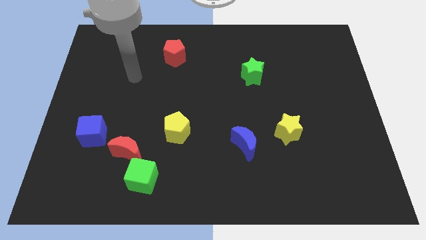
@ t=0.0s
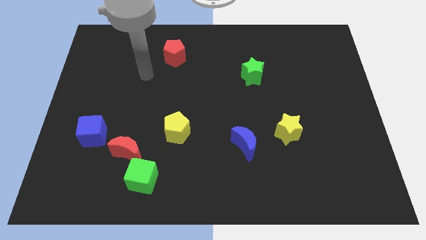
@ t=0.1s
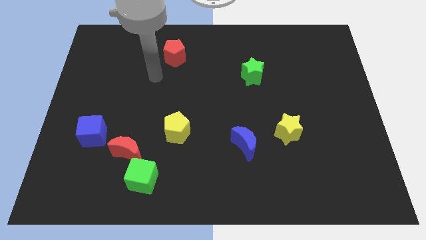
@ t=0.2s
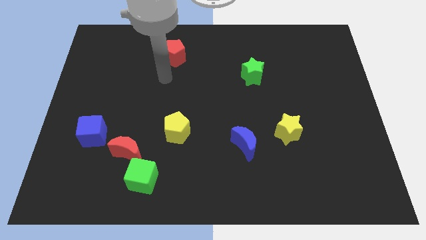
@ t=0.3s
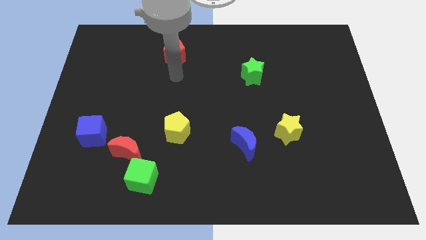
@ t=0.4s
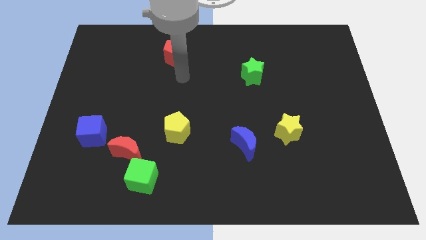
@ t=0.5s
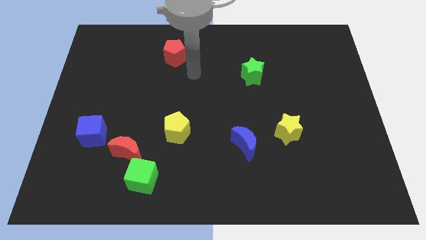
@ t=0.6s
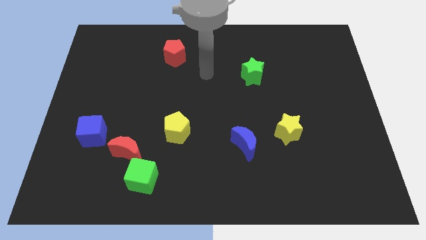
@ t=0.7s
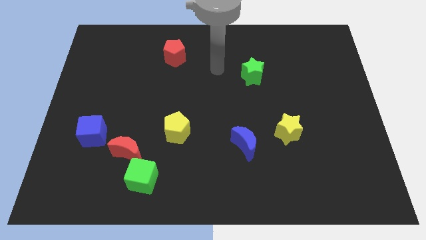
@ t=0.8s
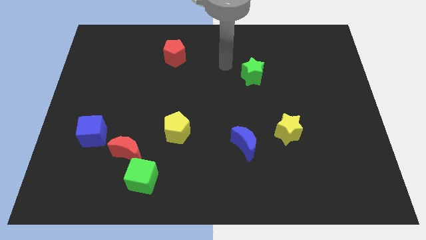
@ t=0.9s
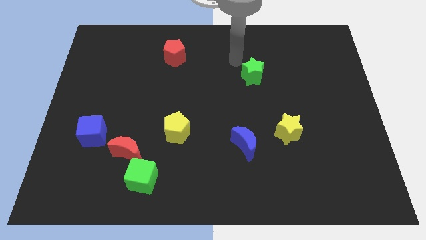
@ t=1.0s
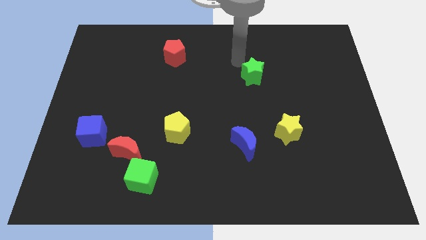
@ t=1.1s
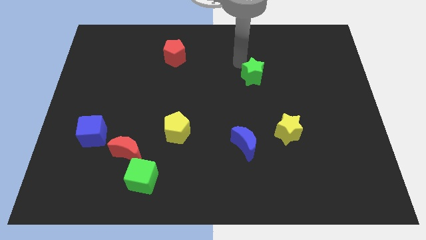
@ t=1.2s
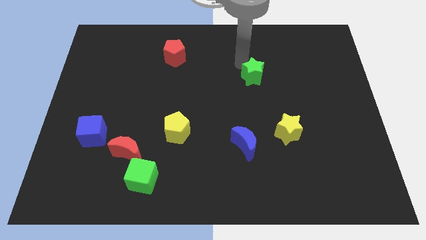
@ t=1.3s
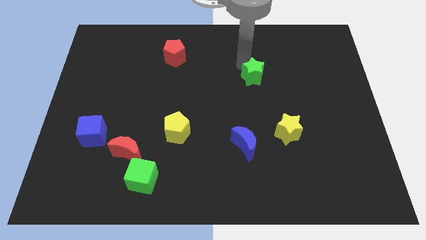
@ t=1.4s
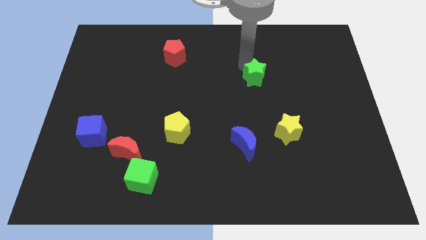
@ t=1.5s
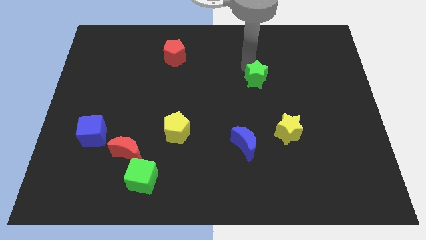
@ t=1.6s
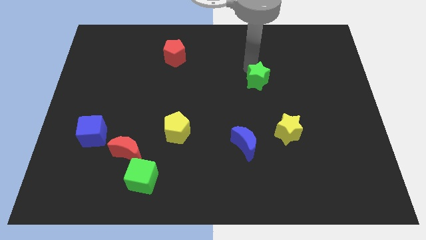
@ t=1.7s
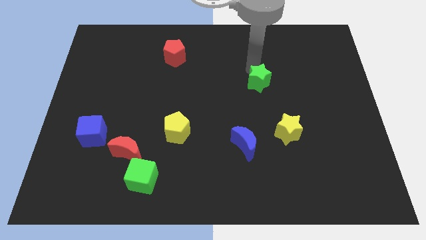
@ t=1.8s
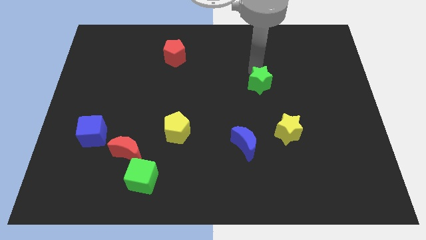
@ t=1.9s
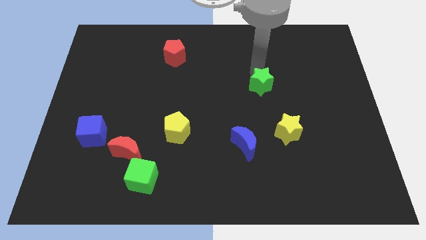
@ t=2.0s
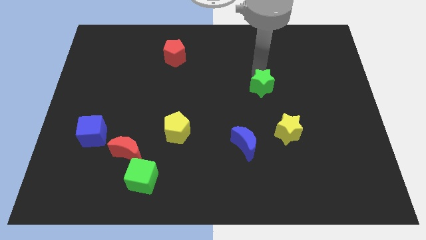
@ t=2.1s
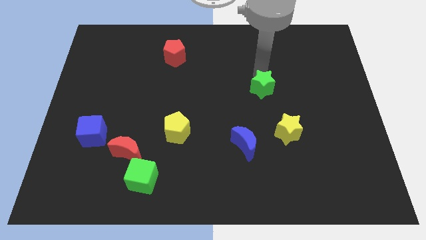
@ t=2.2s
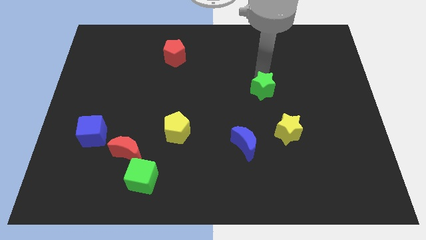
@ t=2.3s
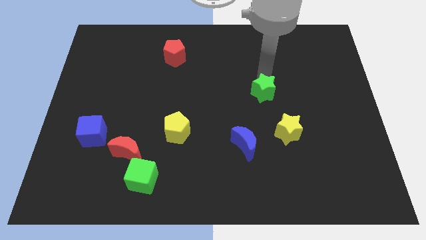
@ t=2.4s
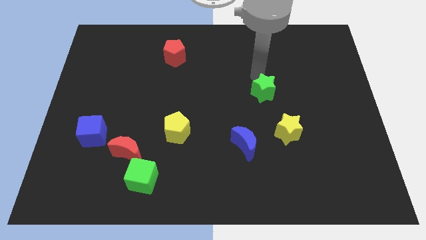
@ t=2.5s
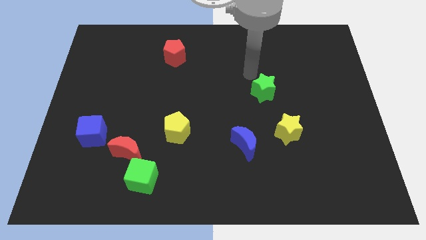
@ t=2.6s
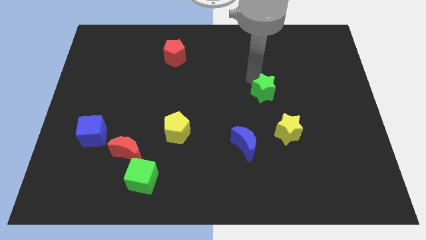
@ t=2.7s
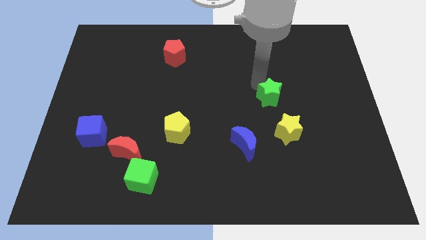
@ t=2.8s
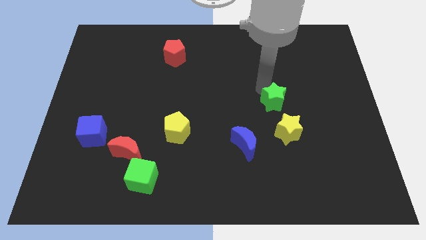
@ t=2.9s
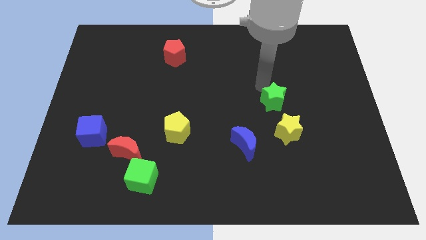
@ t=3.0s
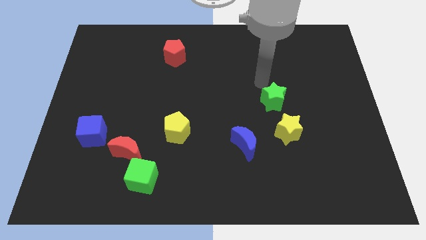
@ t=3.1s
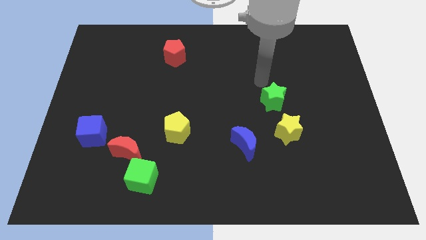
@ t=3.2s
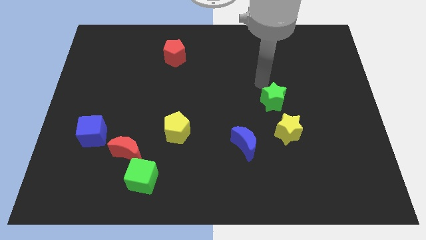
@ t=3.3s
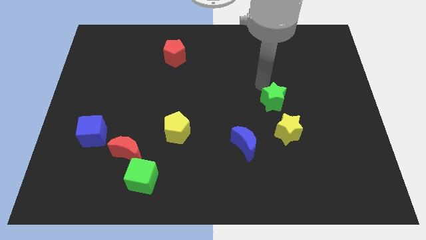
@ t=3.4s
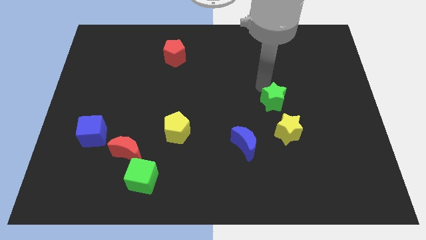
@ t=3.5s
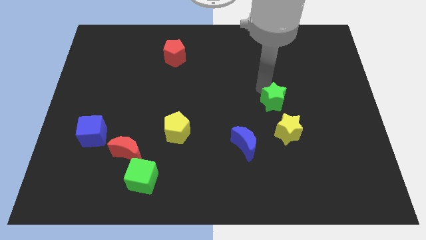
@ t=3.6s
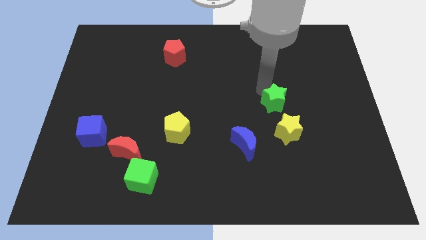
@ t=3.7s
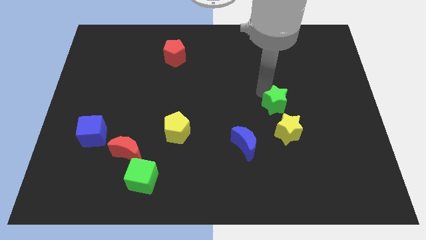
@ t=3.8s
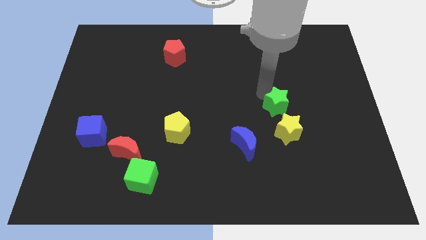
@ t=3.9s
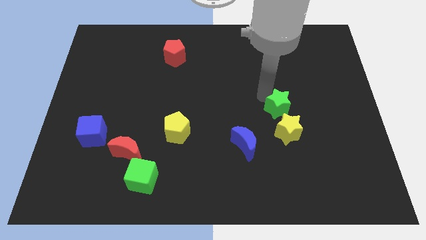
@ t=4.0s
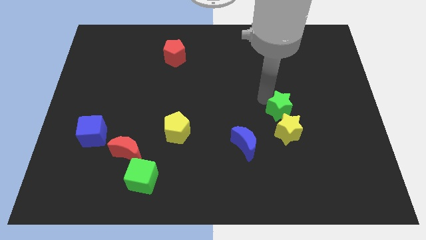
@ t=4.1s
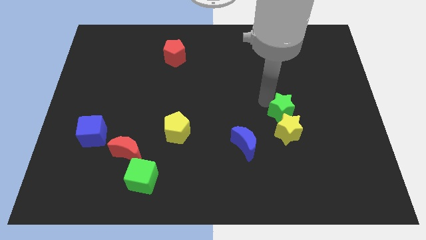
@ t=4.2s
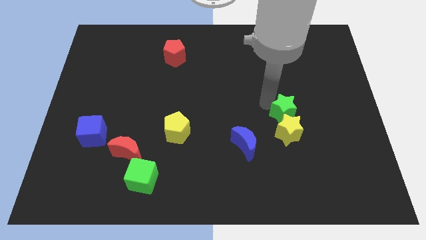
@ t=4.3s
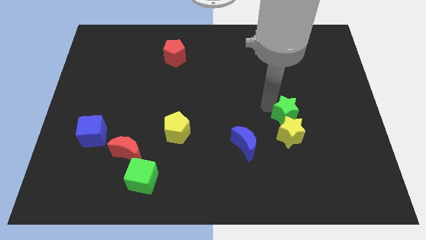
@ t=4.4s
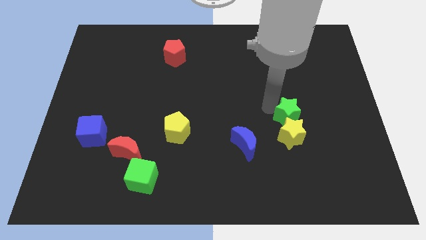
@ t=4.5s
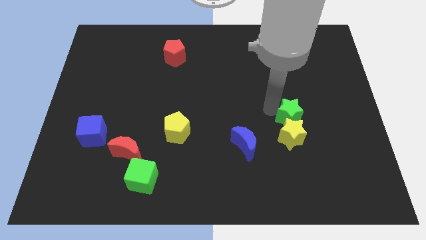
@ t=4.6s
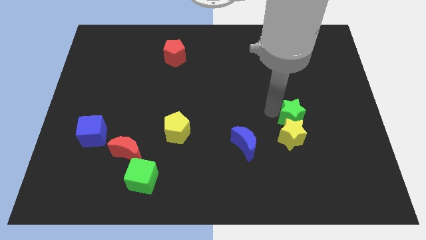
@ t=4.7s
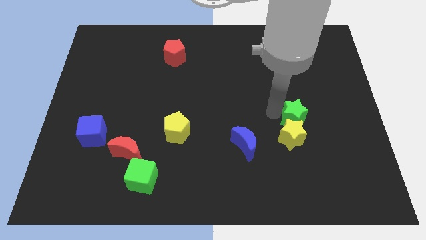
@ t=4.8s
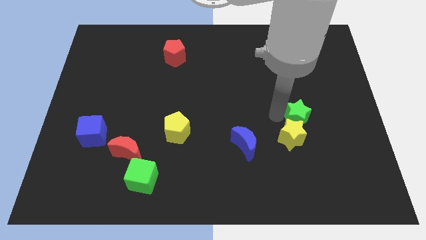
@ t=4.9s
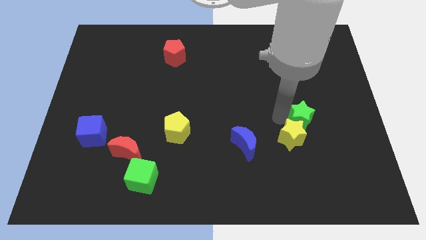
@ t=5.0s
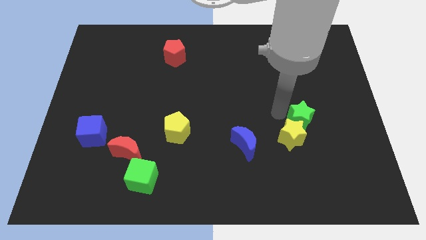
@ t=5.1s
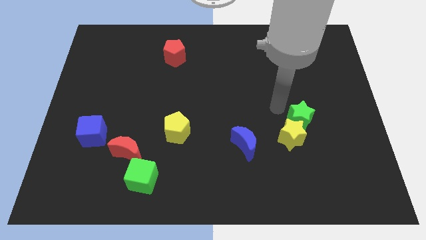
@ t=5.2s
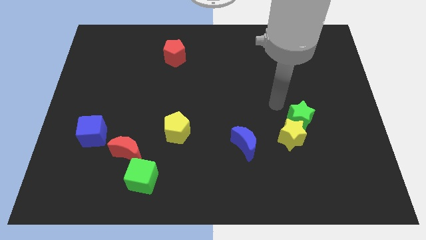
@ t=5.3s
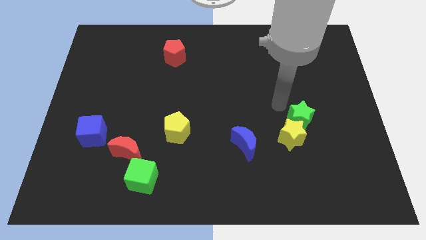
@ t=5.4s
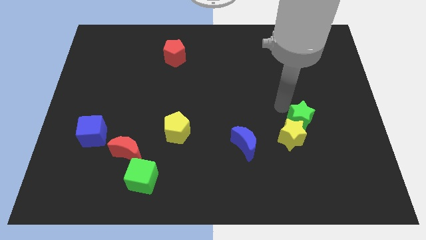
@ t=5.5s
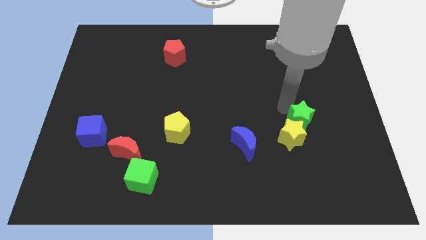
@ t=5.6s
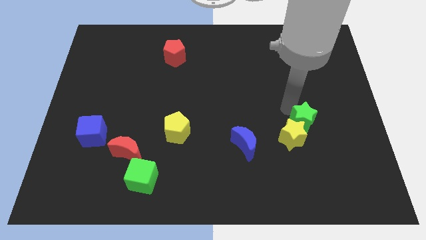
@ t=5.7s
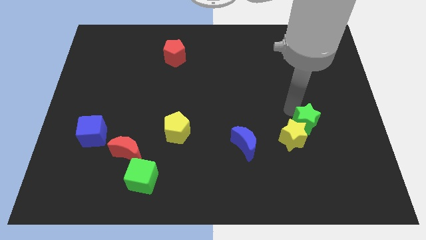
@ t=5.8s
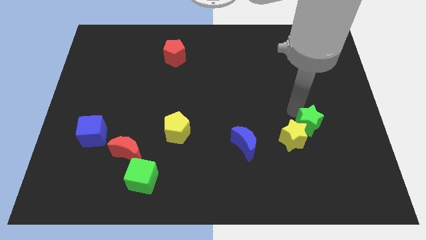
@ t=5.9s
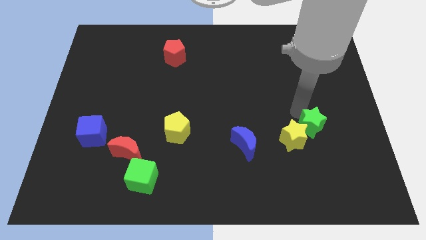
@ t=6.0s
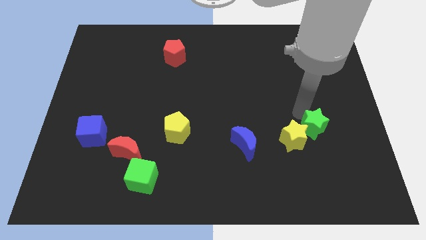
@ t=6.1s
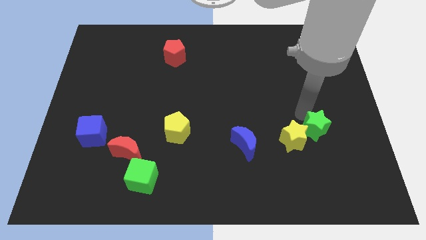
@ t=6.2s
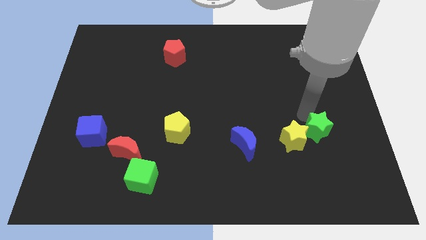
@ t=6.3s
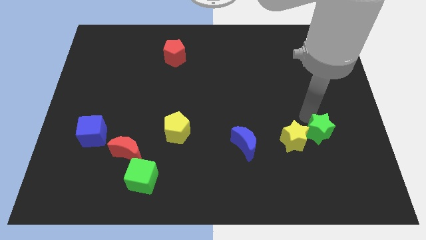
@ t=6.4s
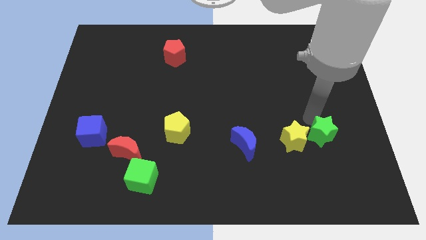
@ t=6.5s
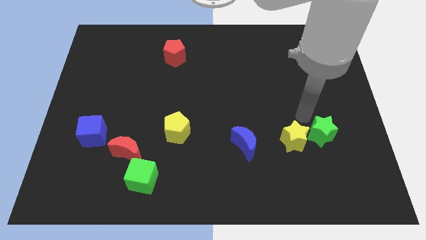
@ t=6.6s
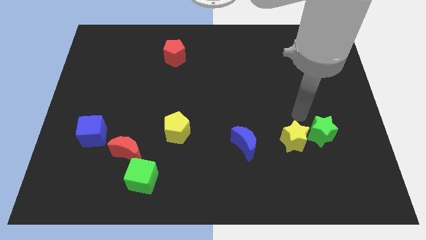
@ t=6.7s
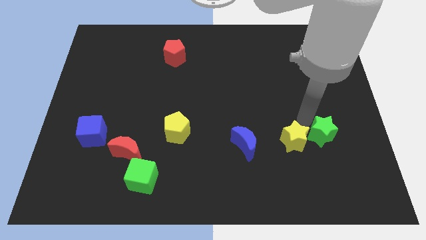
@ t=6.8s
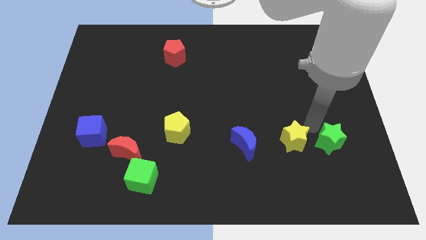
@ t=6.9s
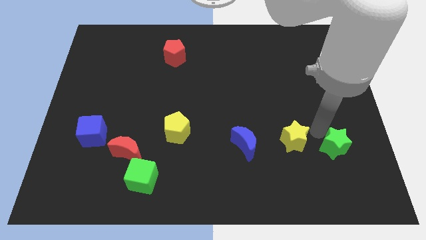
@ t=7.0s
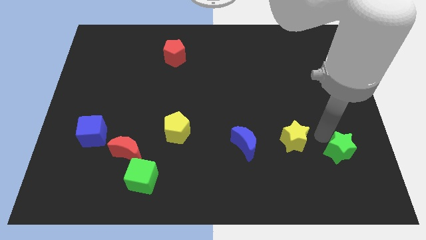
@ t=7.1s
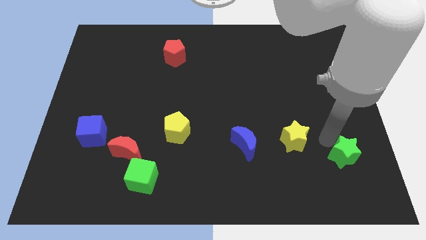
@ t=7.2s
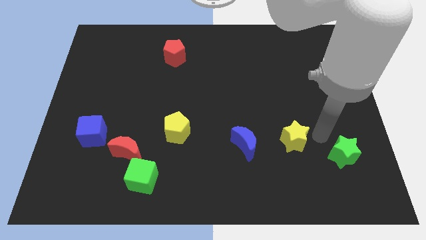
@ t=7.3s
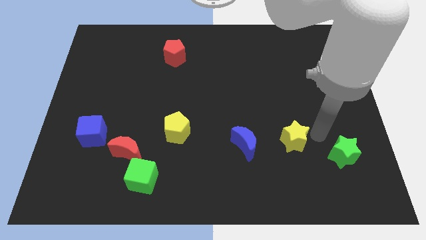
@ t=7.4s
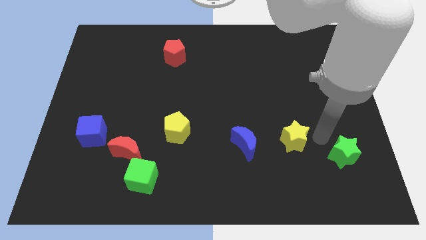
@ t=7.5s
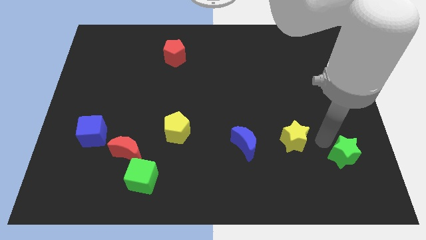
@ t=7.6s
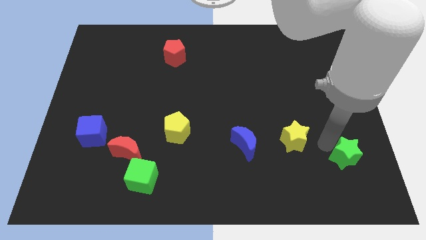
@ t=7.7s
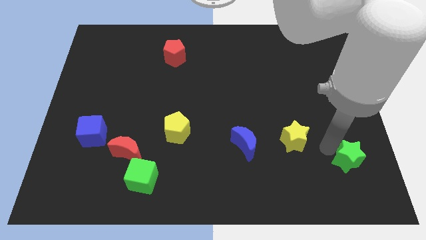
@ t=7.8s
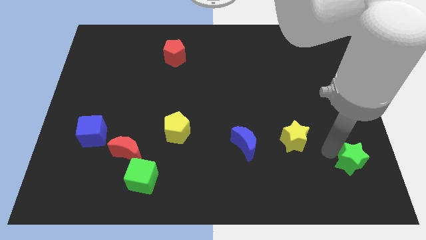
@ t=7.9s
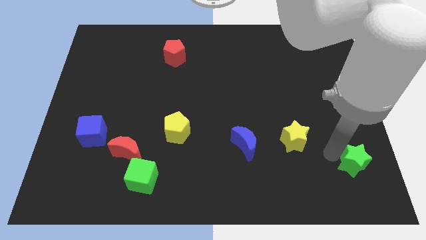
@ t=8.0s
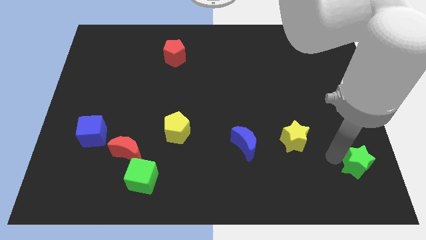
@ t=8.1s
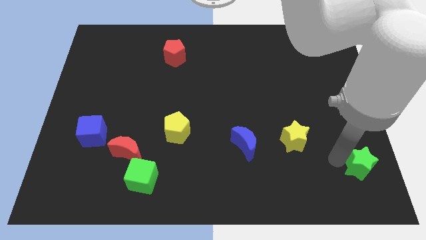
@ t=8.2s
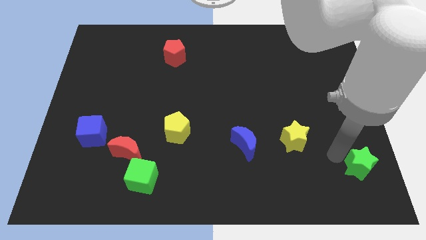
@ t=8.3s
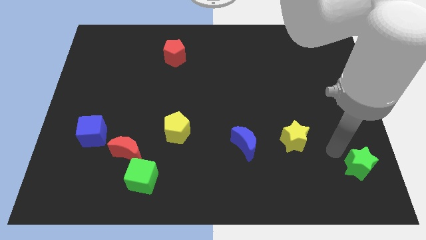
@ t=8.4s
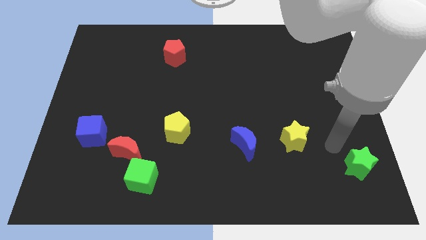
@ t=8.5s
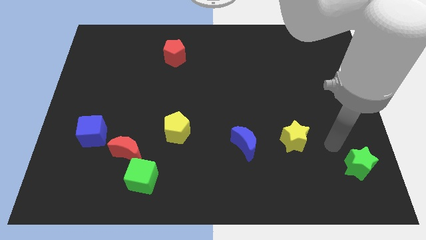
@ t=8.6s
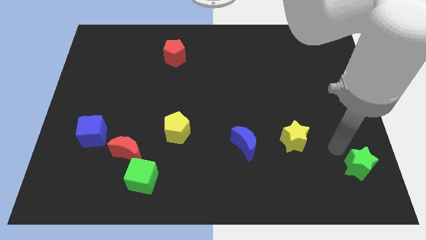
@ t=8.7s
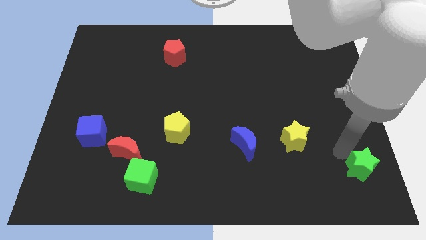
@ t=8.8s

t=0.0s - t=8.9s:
put the green star to the lower right corner
